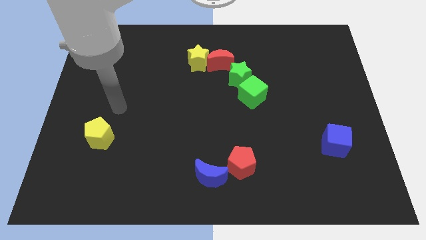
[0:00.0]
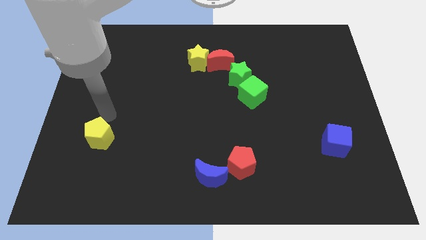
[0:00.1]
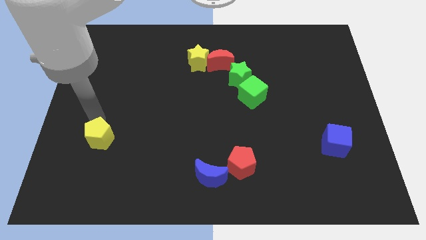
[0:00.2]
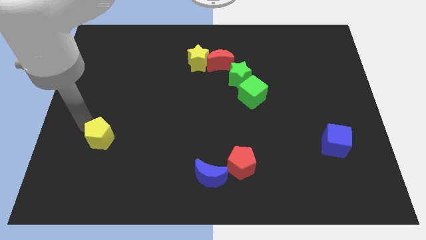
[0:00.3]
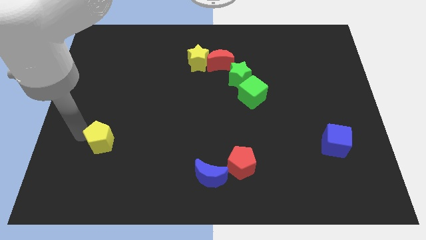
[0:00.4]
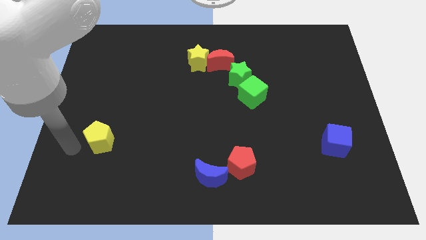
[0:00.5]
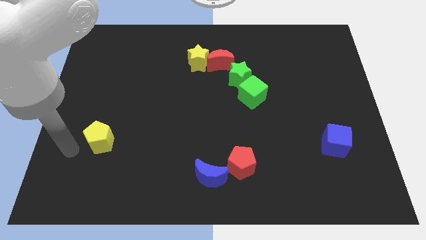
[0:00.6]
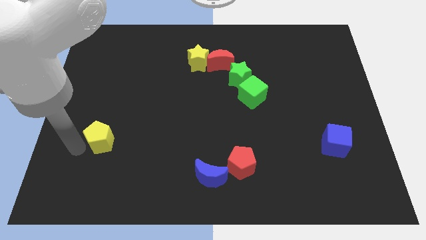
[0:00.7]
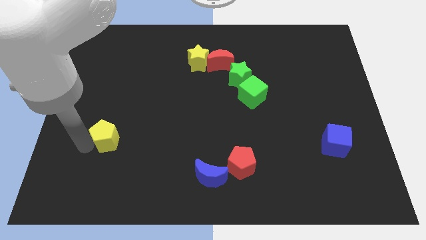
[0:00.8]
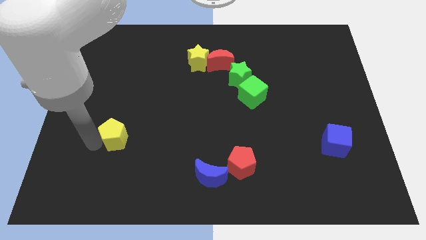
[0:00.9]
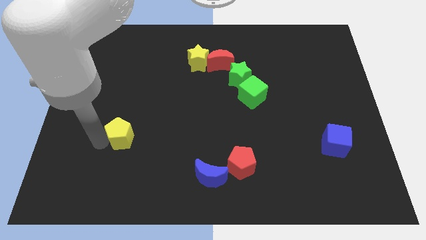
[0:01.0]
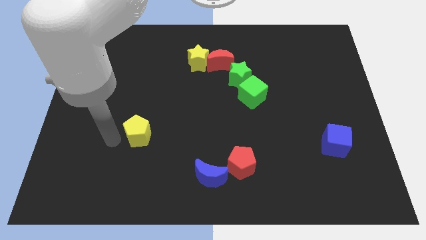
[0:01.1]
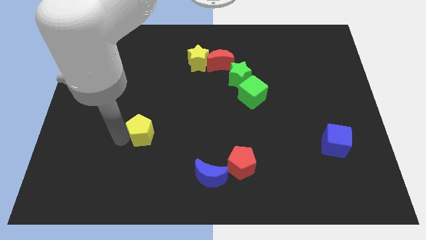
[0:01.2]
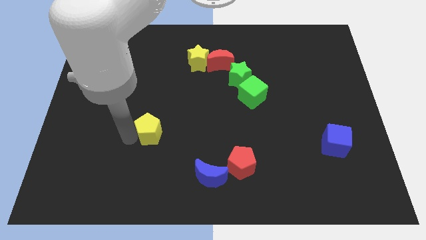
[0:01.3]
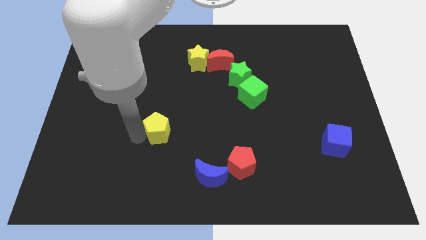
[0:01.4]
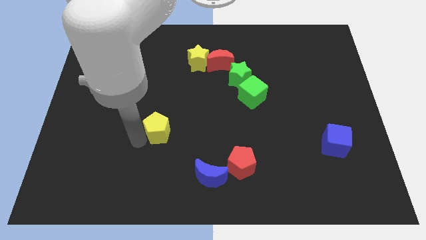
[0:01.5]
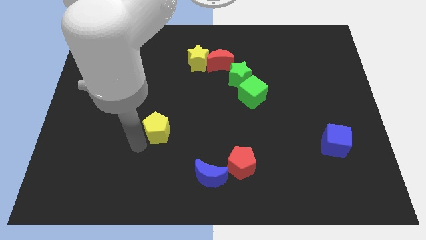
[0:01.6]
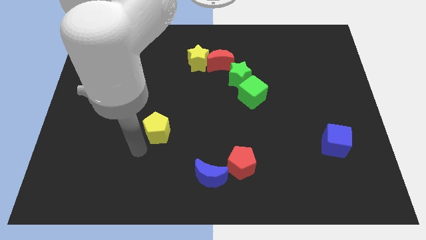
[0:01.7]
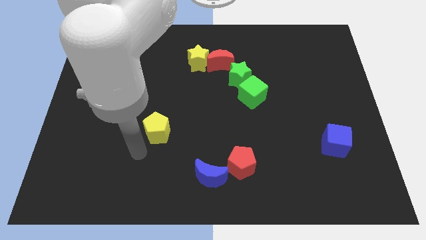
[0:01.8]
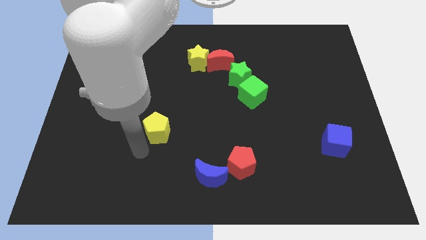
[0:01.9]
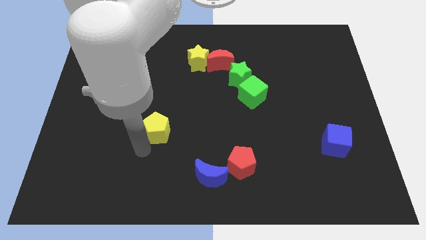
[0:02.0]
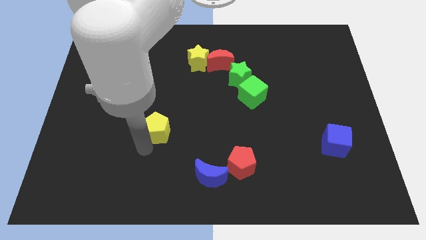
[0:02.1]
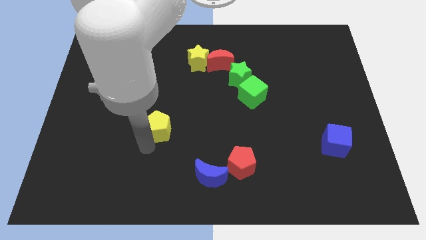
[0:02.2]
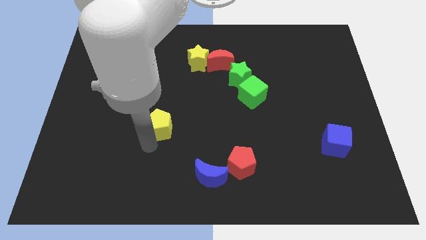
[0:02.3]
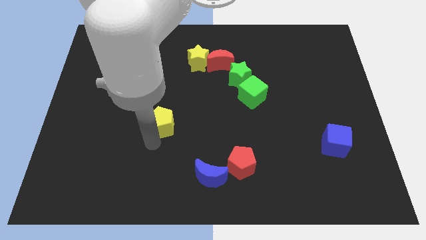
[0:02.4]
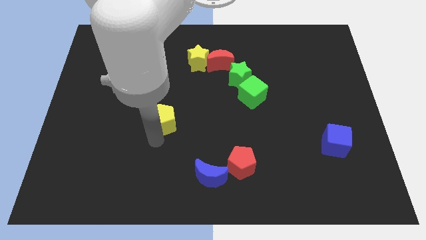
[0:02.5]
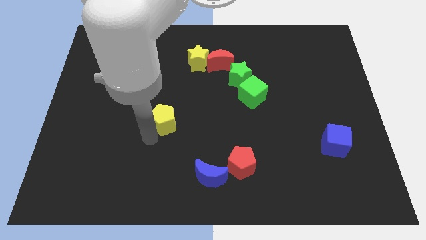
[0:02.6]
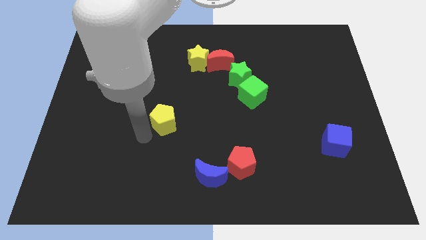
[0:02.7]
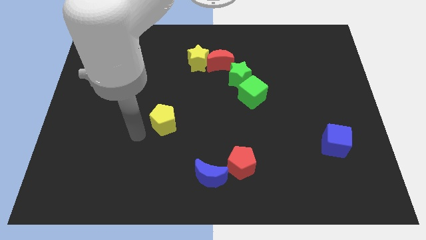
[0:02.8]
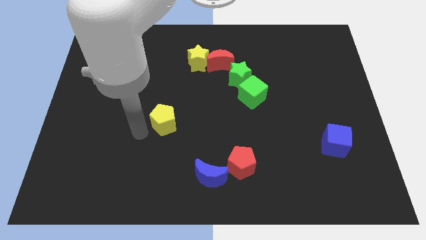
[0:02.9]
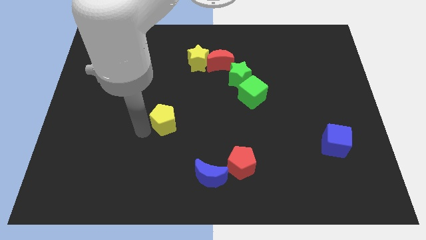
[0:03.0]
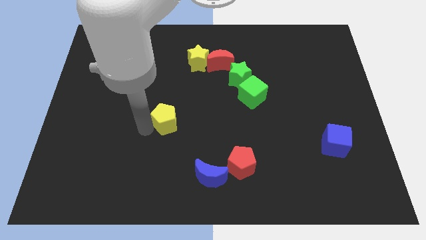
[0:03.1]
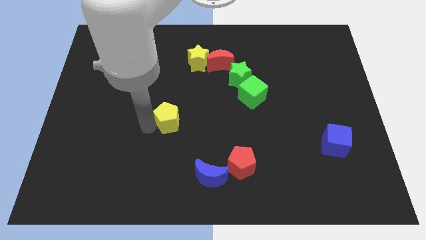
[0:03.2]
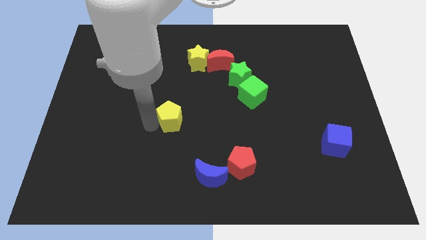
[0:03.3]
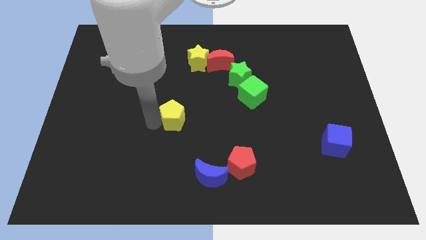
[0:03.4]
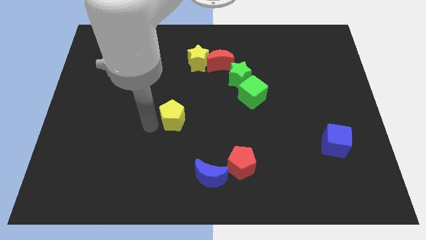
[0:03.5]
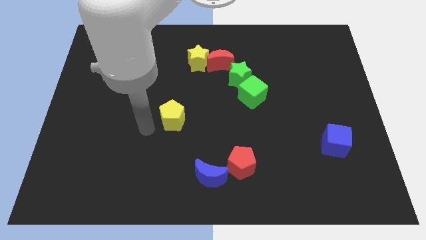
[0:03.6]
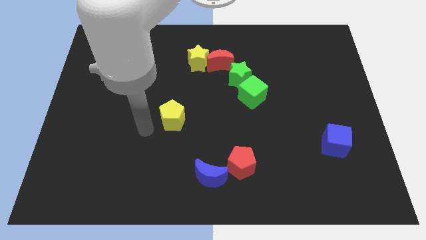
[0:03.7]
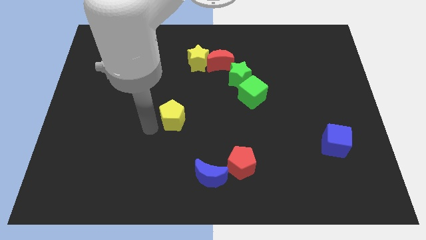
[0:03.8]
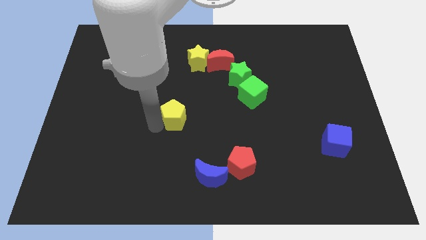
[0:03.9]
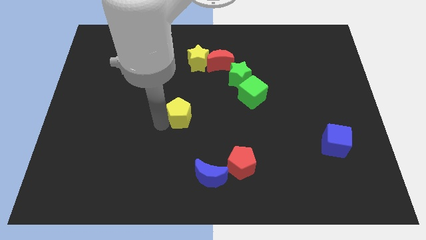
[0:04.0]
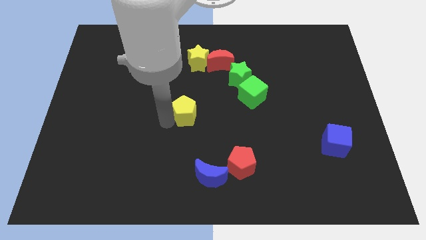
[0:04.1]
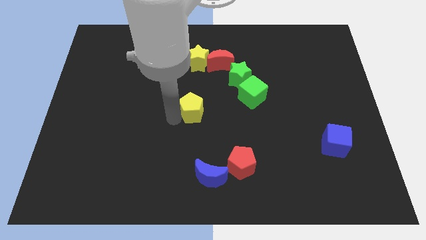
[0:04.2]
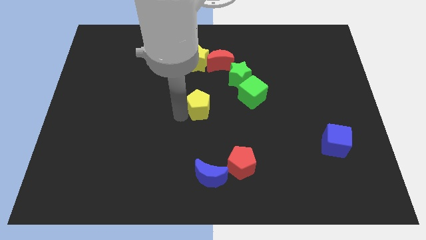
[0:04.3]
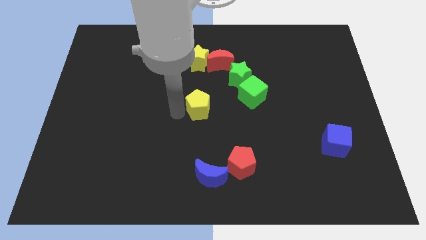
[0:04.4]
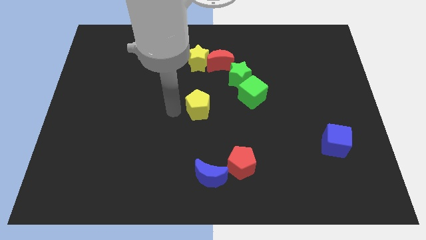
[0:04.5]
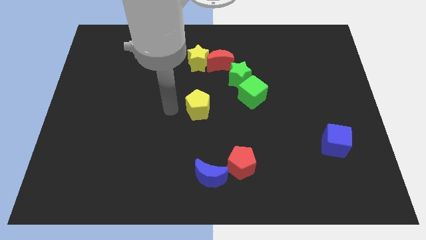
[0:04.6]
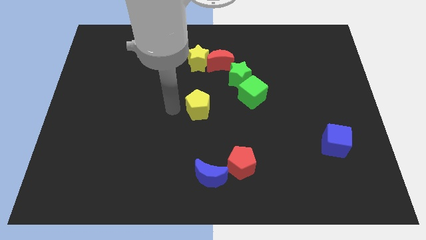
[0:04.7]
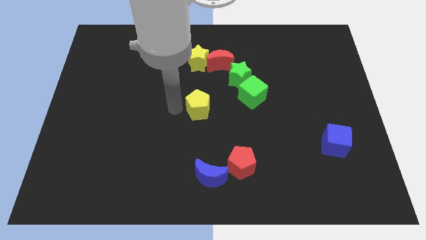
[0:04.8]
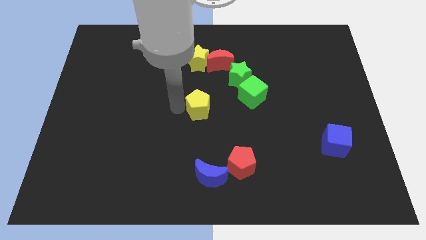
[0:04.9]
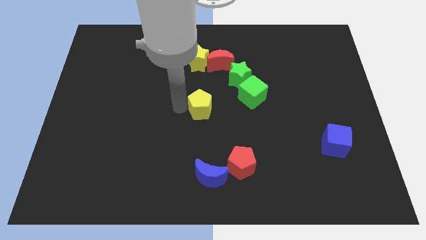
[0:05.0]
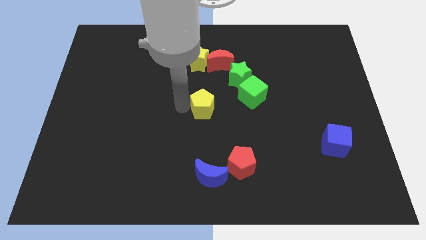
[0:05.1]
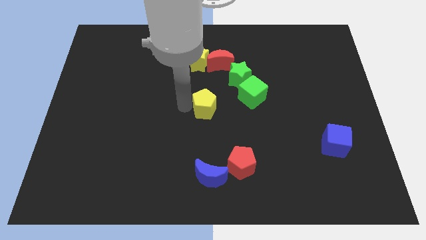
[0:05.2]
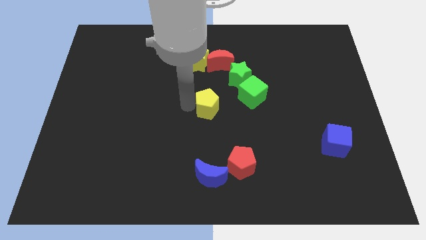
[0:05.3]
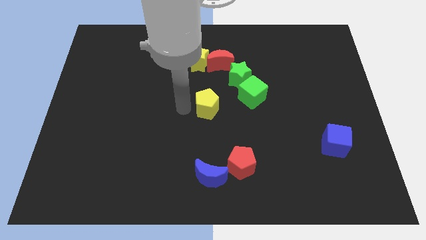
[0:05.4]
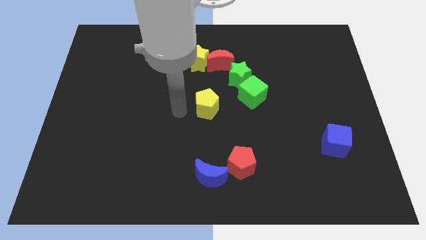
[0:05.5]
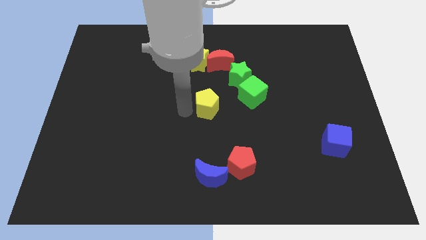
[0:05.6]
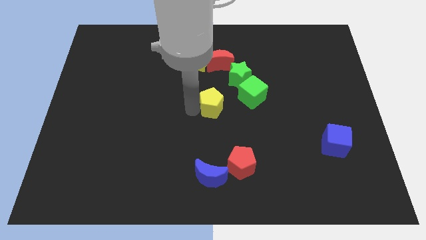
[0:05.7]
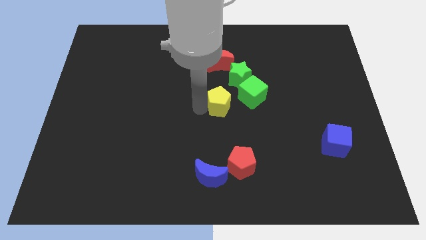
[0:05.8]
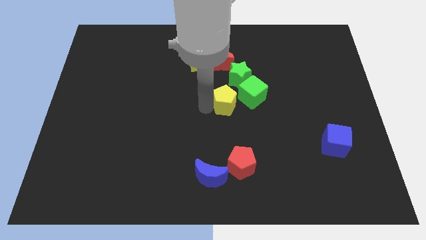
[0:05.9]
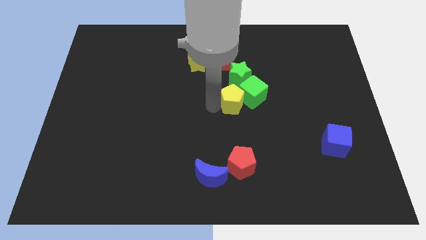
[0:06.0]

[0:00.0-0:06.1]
slide the yellow pentagon to the green cube

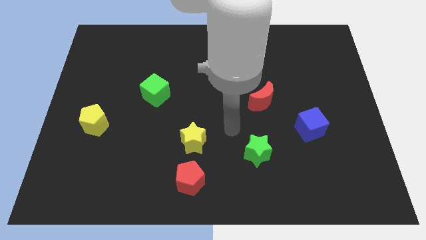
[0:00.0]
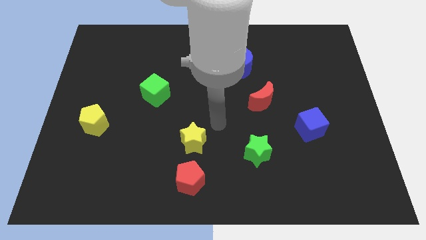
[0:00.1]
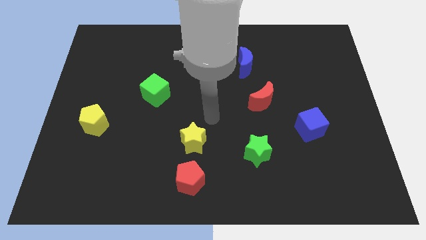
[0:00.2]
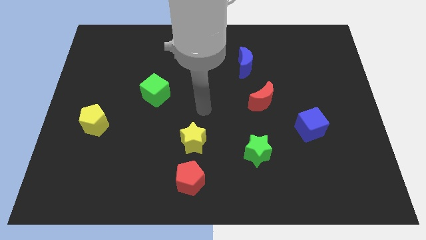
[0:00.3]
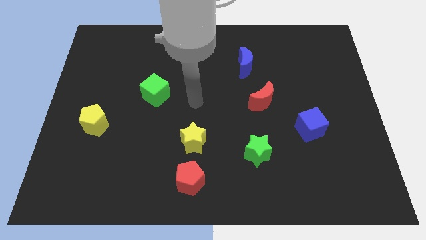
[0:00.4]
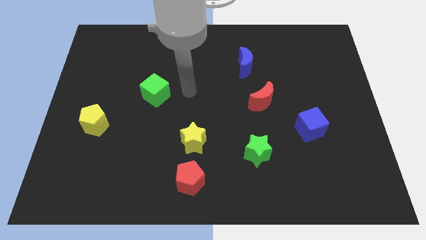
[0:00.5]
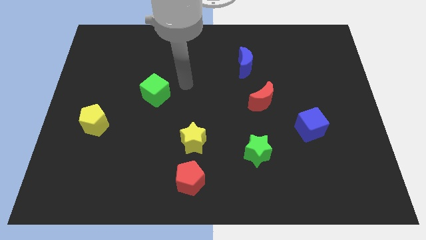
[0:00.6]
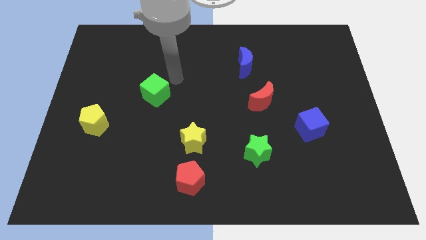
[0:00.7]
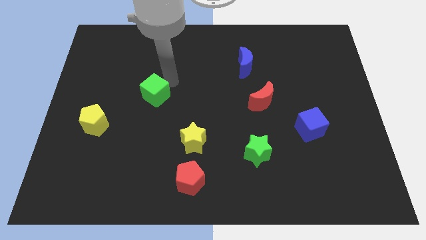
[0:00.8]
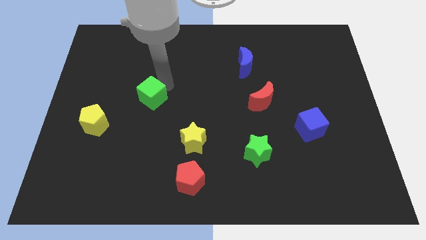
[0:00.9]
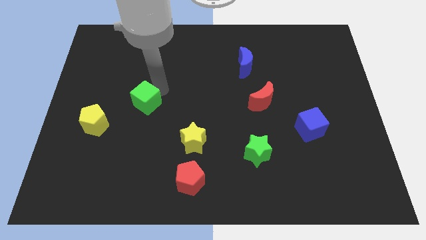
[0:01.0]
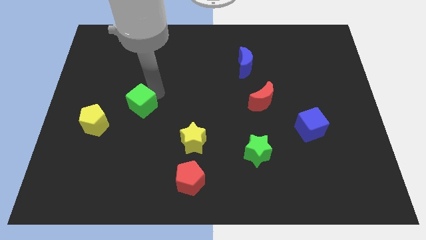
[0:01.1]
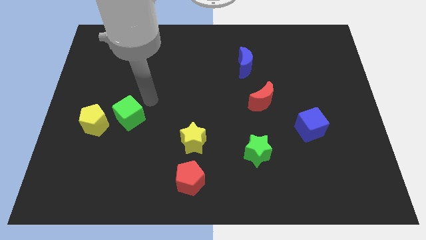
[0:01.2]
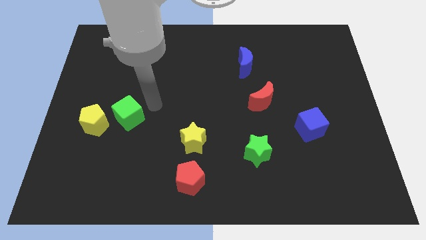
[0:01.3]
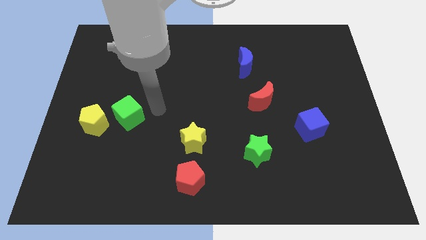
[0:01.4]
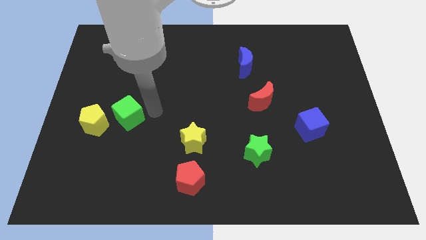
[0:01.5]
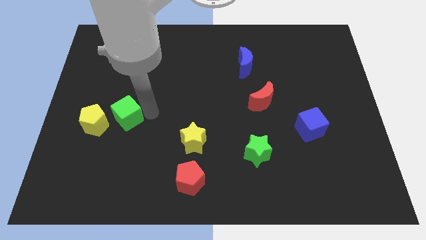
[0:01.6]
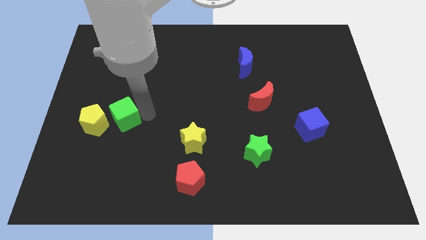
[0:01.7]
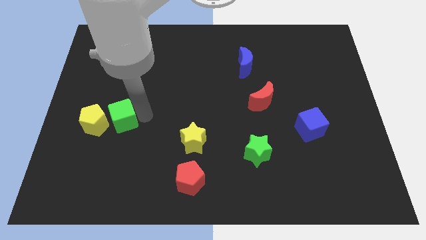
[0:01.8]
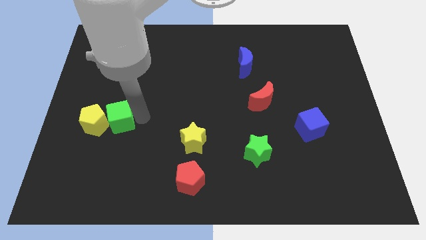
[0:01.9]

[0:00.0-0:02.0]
move the green cube close to the yellow pentagon
